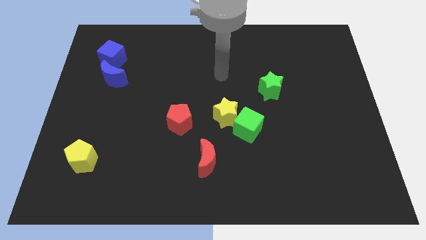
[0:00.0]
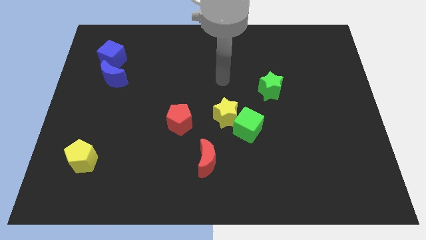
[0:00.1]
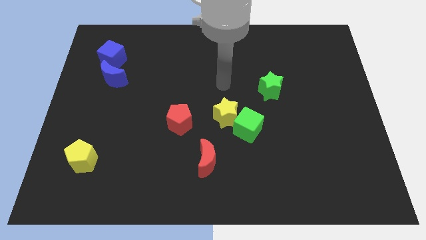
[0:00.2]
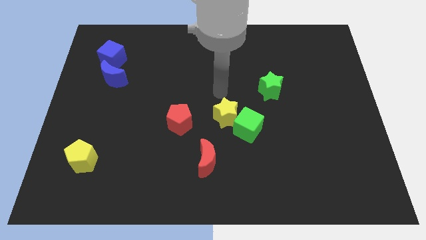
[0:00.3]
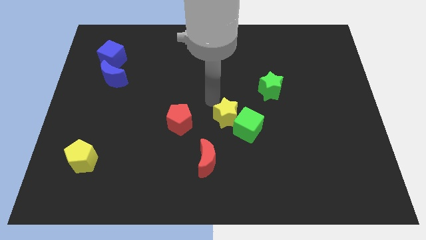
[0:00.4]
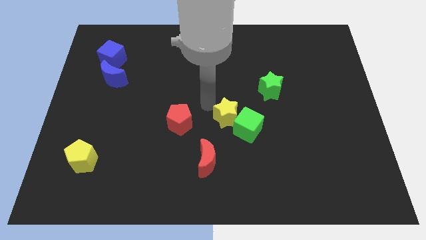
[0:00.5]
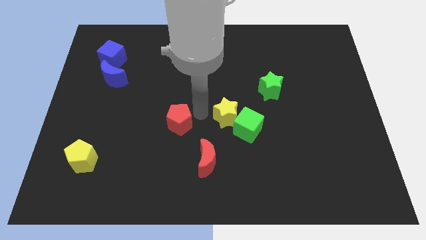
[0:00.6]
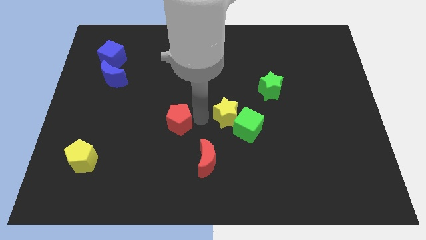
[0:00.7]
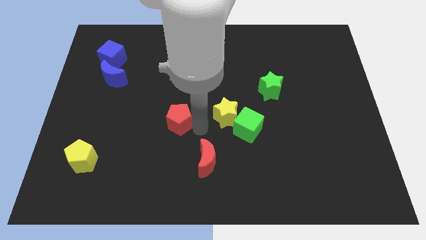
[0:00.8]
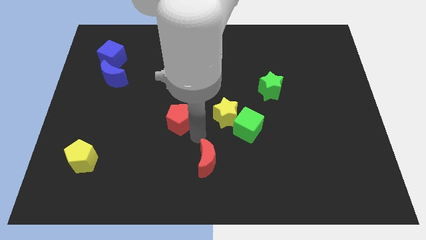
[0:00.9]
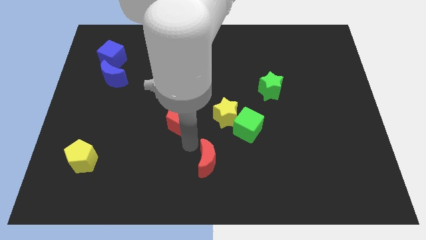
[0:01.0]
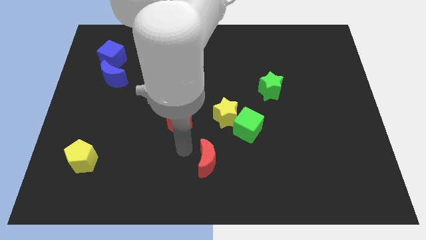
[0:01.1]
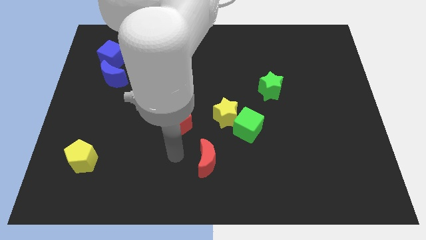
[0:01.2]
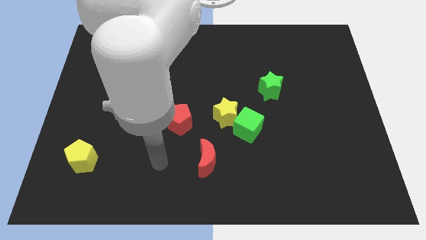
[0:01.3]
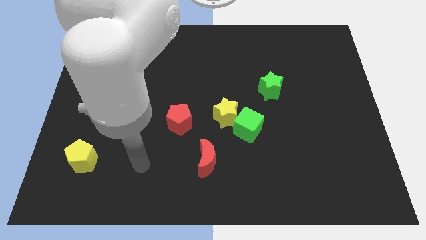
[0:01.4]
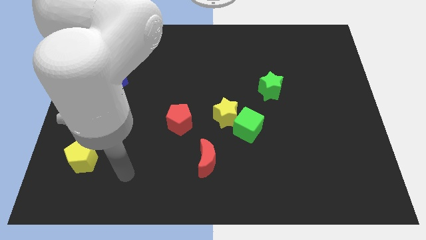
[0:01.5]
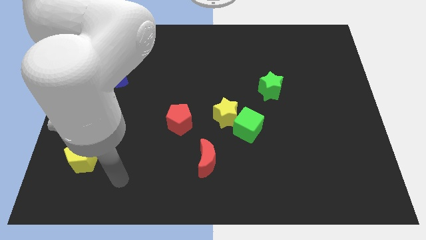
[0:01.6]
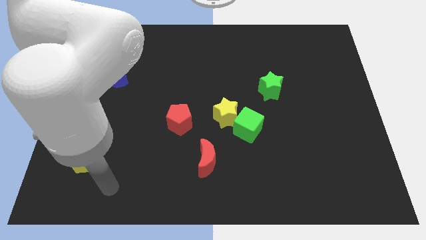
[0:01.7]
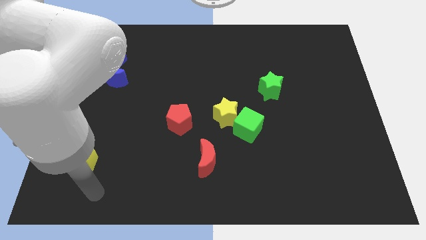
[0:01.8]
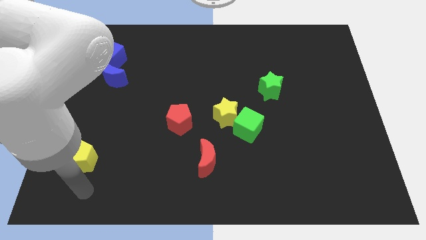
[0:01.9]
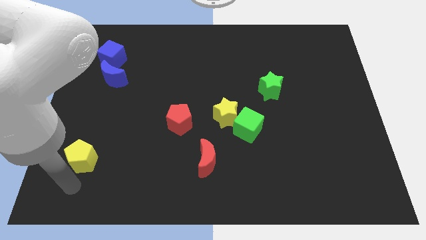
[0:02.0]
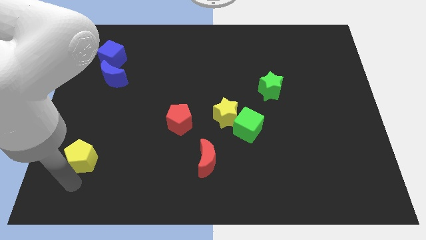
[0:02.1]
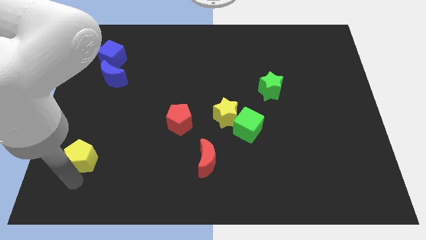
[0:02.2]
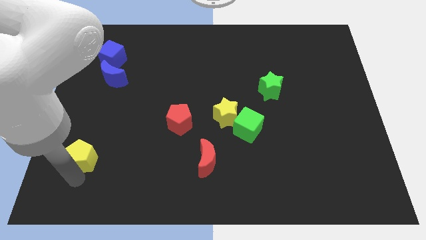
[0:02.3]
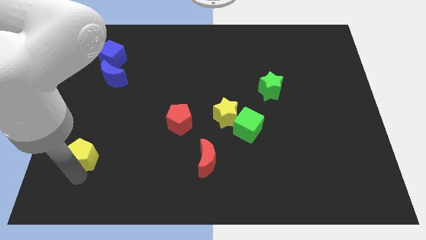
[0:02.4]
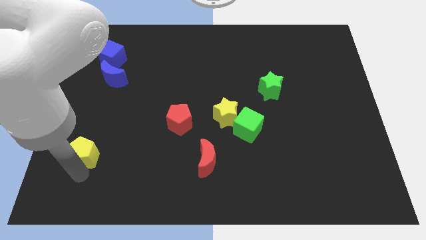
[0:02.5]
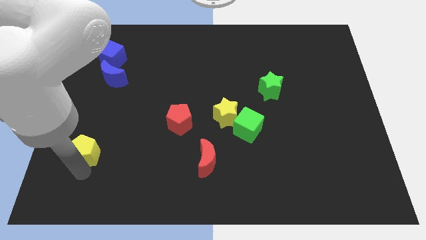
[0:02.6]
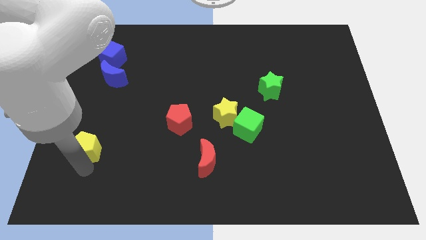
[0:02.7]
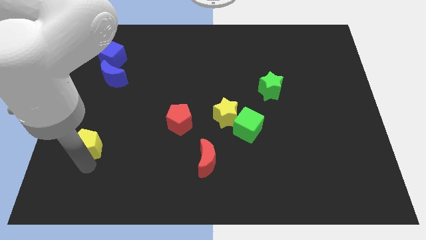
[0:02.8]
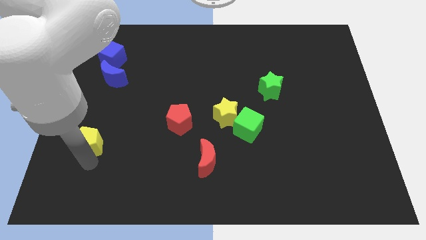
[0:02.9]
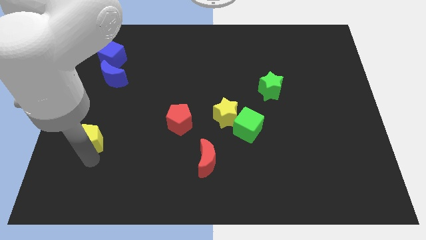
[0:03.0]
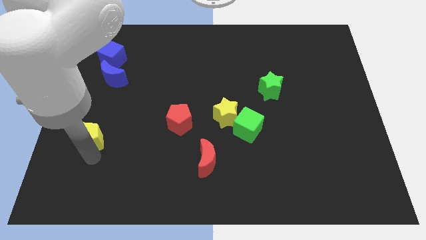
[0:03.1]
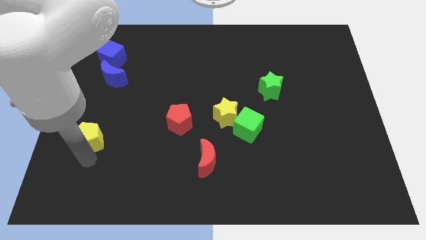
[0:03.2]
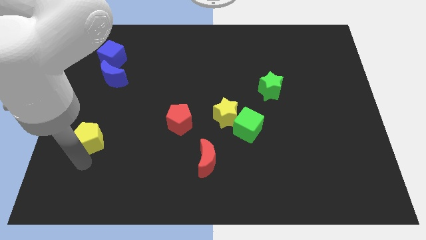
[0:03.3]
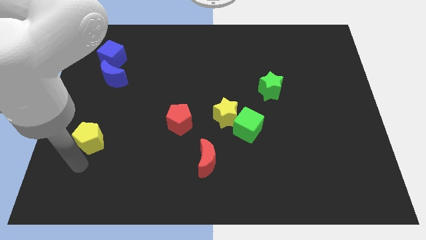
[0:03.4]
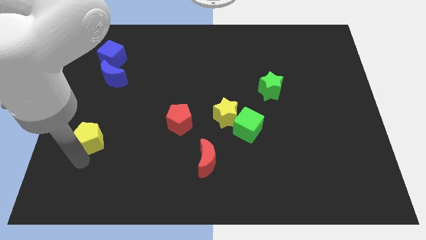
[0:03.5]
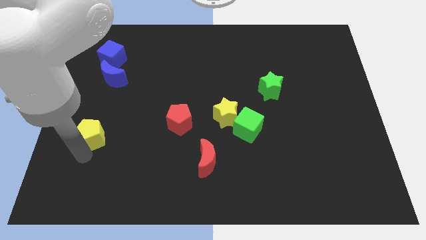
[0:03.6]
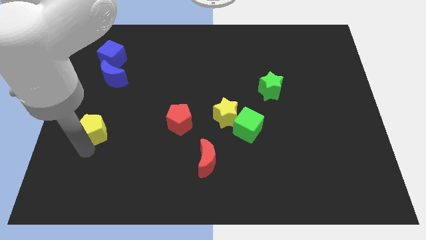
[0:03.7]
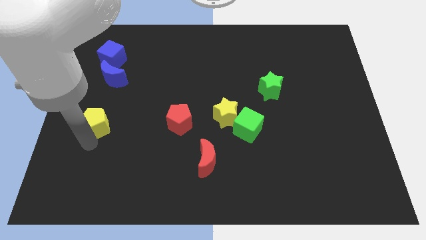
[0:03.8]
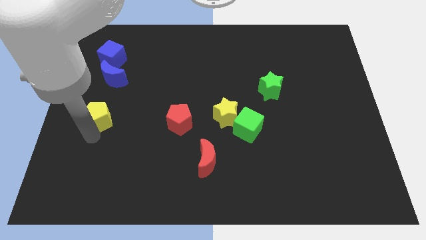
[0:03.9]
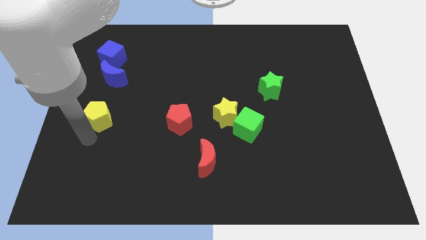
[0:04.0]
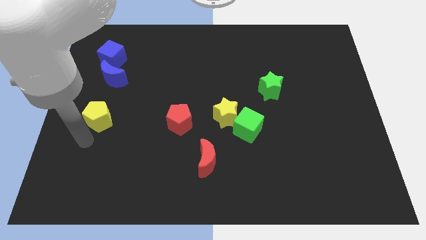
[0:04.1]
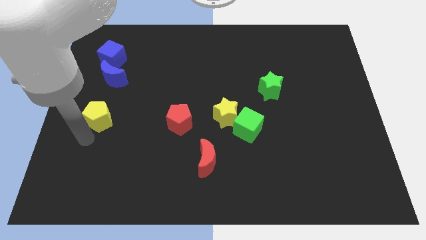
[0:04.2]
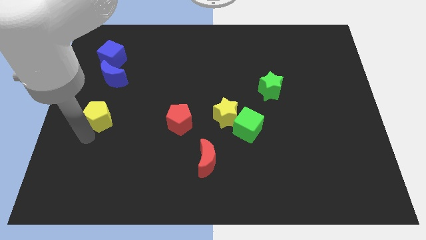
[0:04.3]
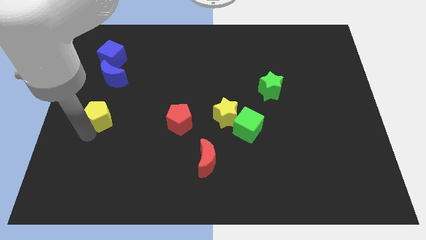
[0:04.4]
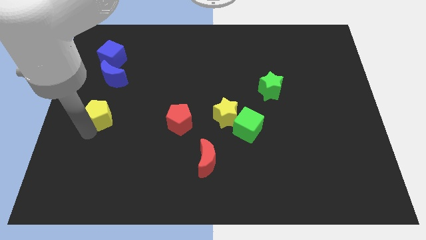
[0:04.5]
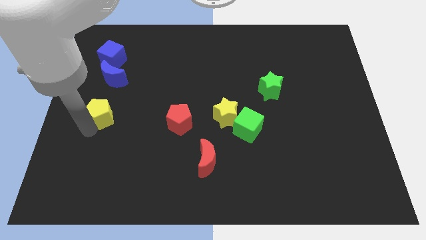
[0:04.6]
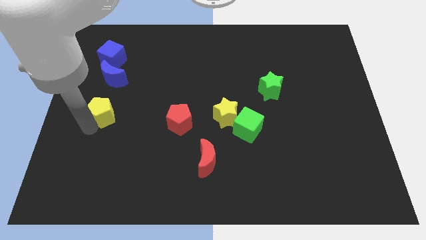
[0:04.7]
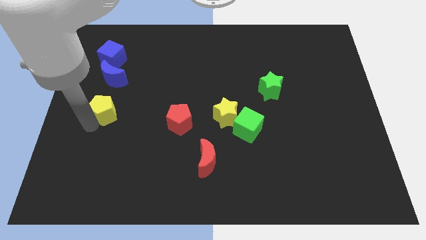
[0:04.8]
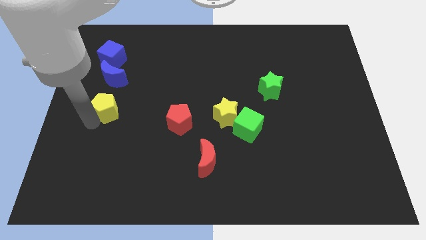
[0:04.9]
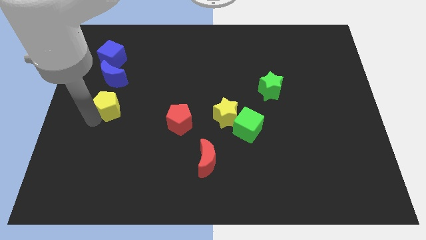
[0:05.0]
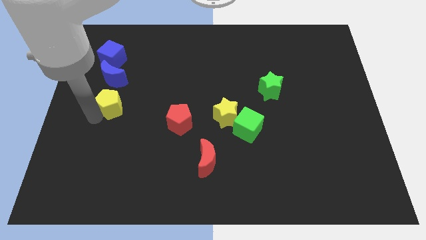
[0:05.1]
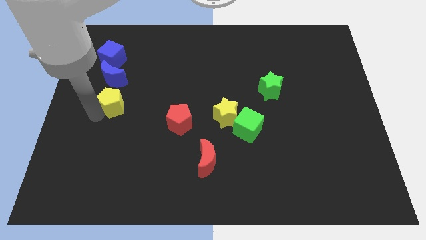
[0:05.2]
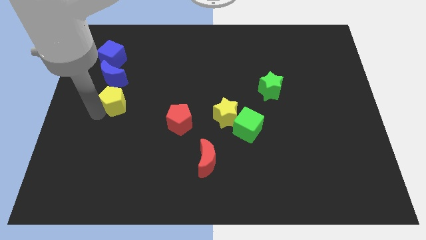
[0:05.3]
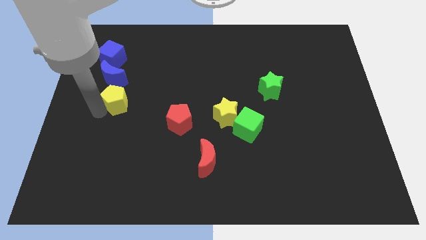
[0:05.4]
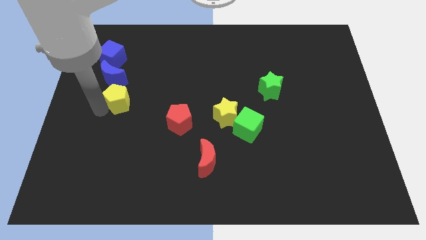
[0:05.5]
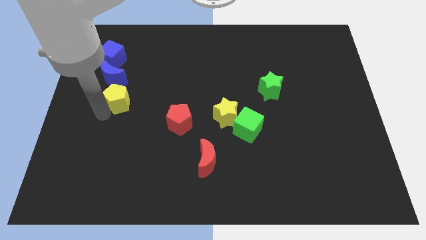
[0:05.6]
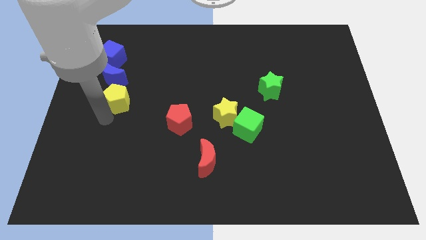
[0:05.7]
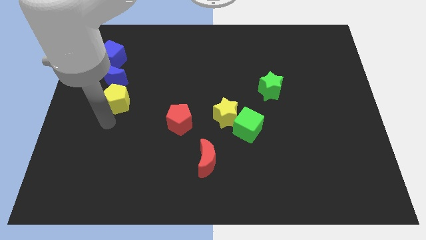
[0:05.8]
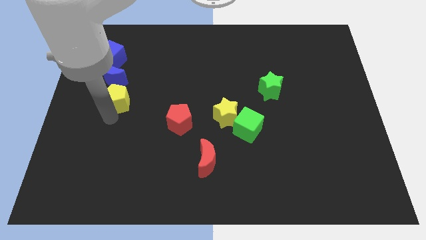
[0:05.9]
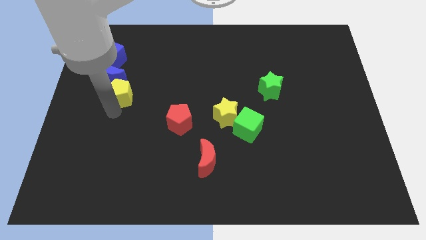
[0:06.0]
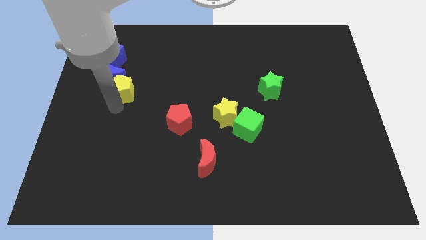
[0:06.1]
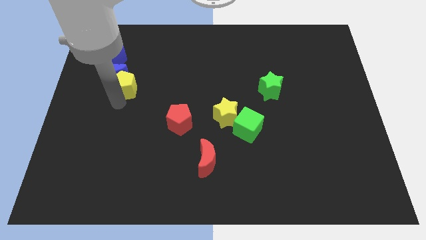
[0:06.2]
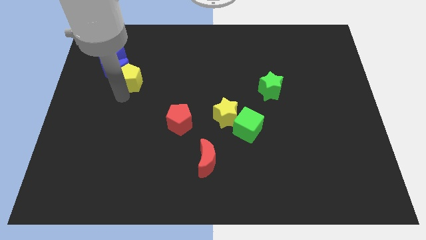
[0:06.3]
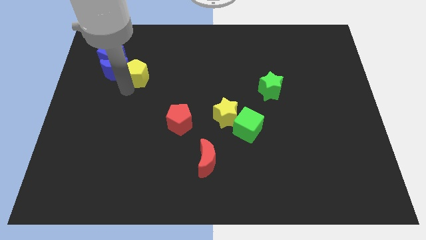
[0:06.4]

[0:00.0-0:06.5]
slide the yellow pentagon to the top right of the blue moon
